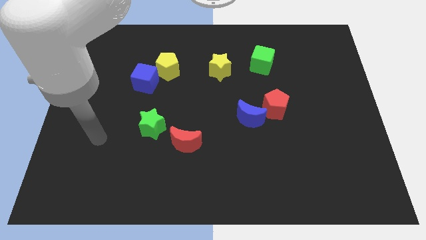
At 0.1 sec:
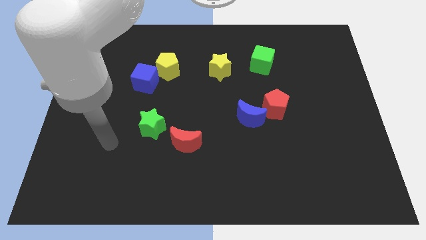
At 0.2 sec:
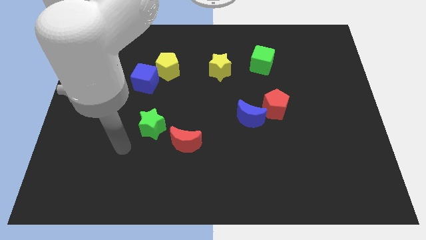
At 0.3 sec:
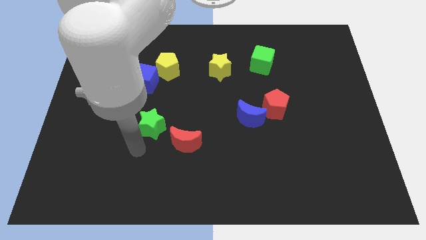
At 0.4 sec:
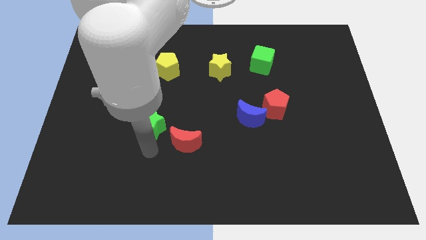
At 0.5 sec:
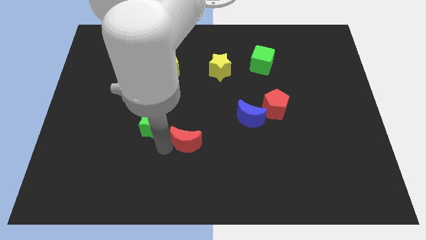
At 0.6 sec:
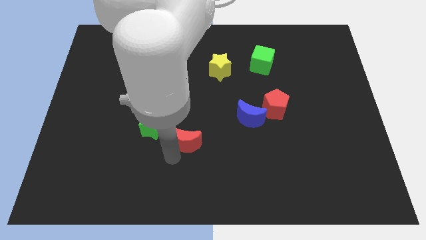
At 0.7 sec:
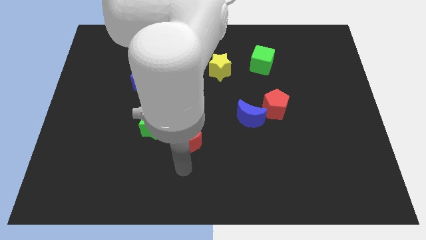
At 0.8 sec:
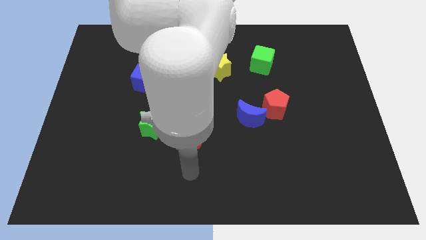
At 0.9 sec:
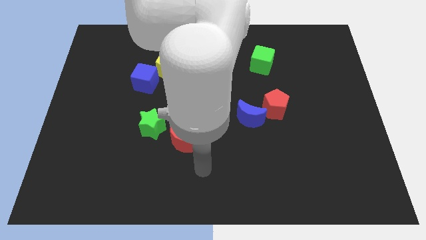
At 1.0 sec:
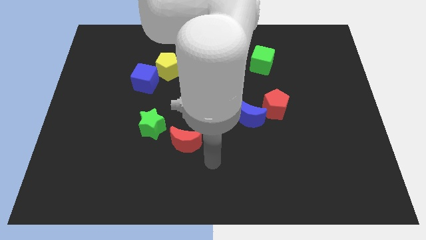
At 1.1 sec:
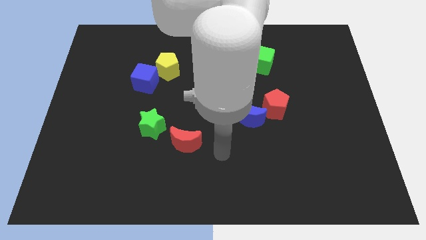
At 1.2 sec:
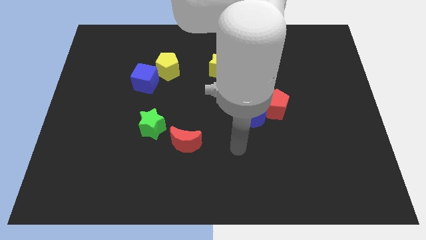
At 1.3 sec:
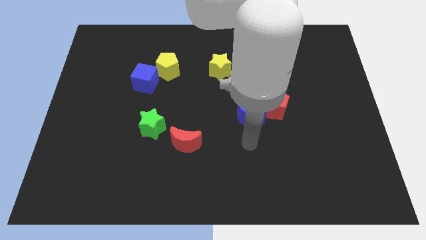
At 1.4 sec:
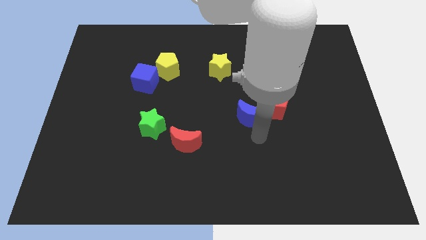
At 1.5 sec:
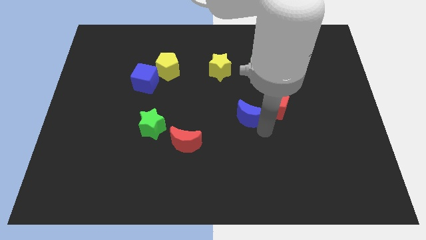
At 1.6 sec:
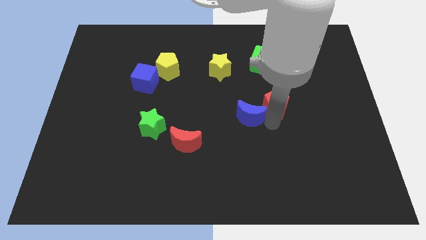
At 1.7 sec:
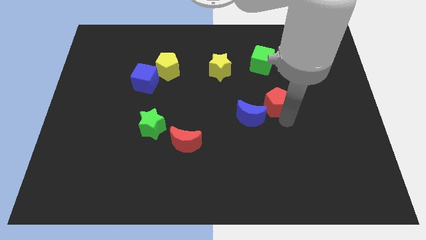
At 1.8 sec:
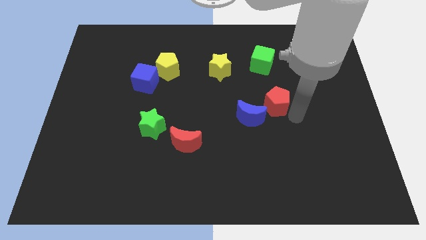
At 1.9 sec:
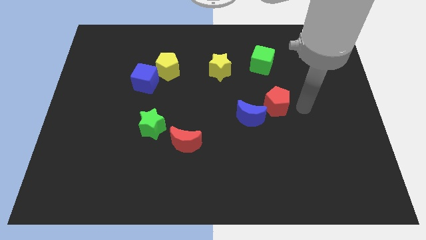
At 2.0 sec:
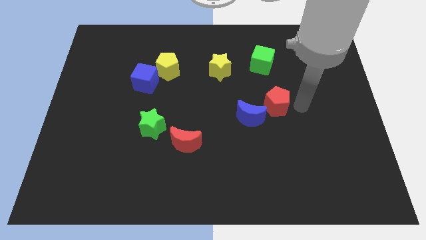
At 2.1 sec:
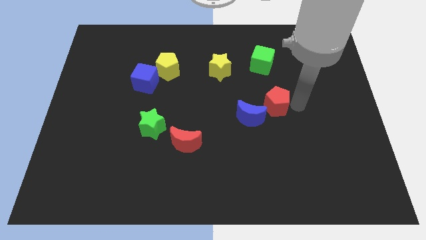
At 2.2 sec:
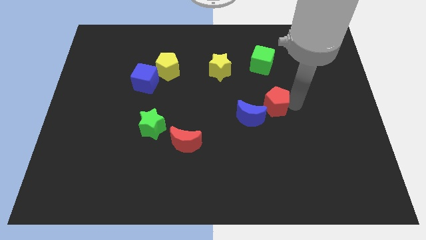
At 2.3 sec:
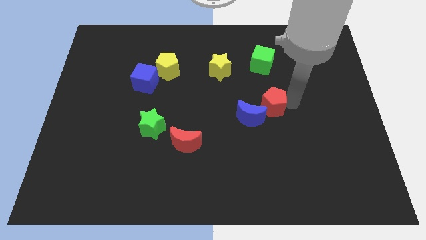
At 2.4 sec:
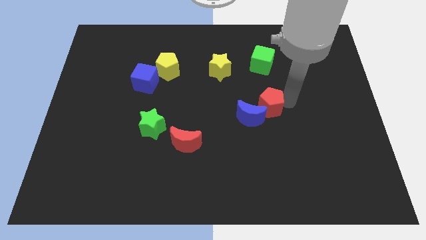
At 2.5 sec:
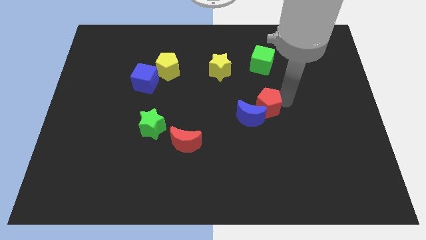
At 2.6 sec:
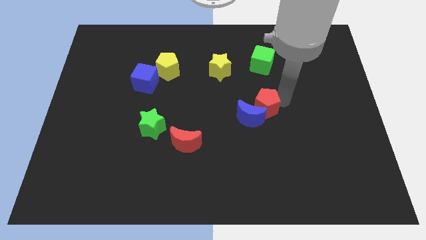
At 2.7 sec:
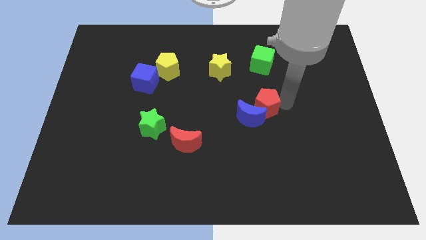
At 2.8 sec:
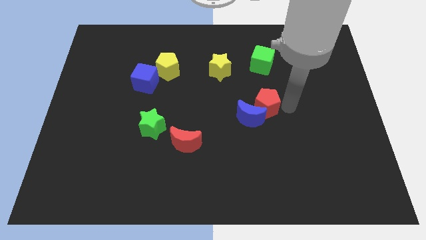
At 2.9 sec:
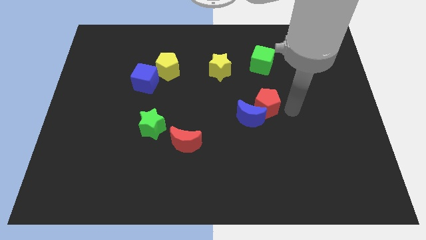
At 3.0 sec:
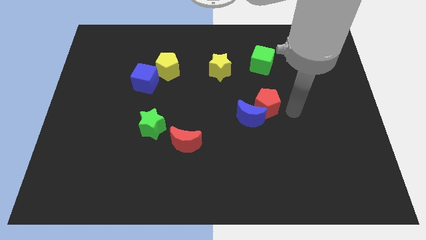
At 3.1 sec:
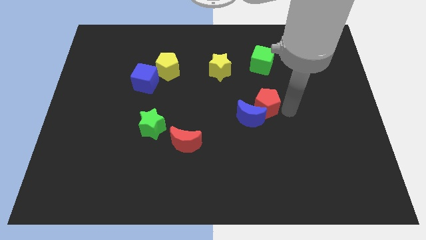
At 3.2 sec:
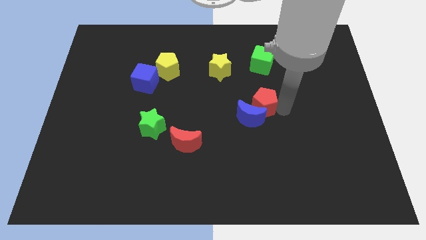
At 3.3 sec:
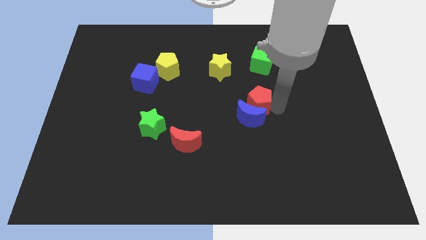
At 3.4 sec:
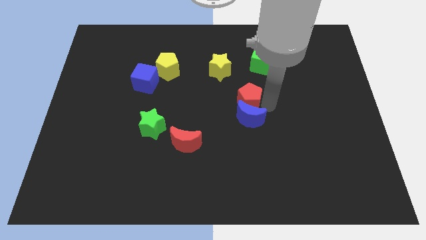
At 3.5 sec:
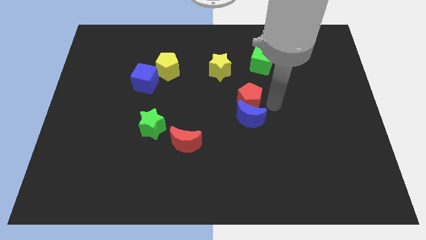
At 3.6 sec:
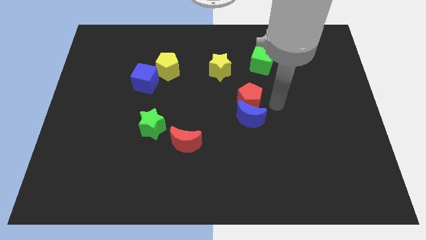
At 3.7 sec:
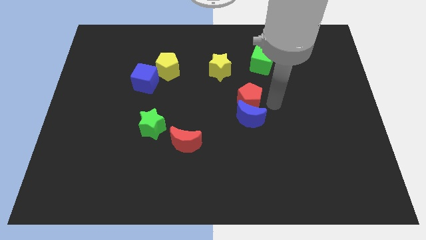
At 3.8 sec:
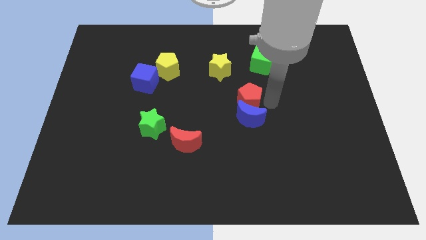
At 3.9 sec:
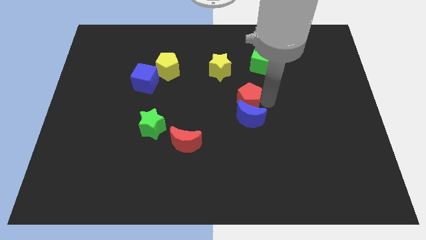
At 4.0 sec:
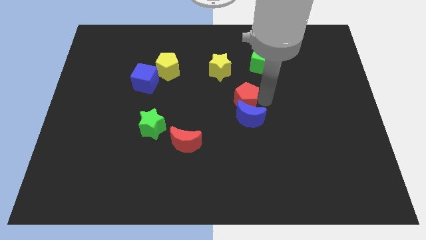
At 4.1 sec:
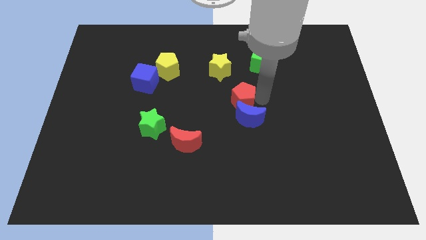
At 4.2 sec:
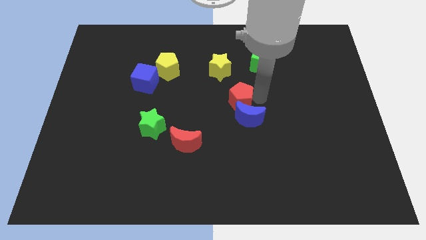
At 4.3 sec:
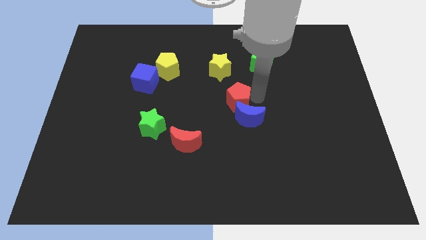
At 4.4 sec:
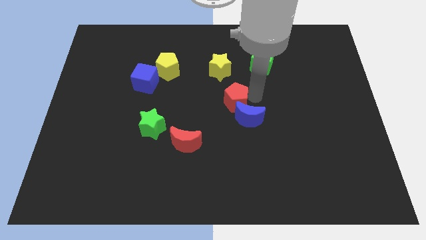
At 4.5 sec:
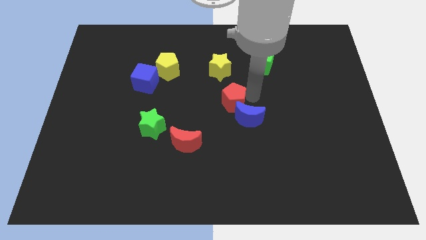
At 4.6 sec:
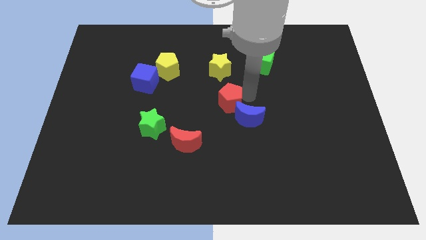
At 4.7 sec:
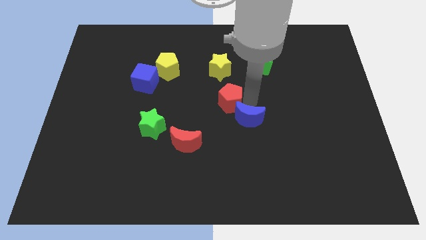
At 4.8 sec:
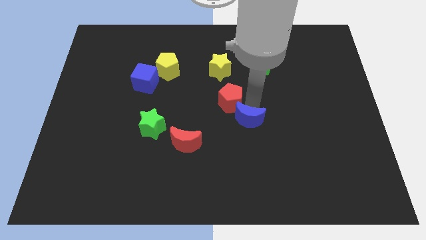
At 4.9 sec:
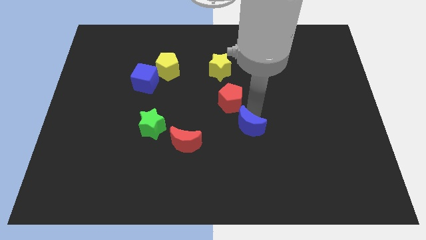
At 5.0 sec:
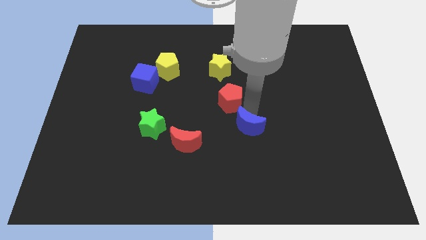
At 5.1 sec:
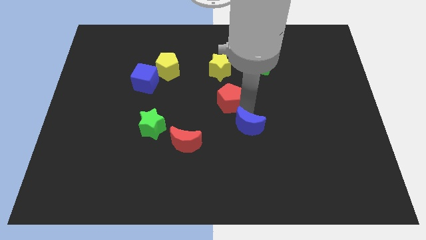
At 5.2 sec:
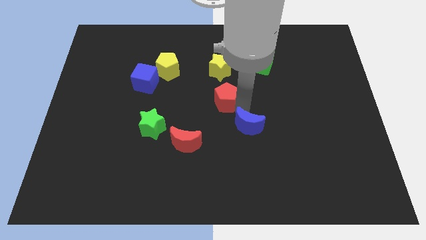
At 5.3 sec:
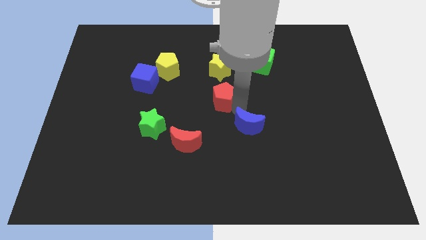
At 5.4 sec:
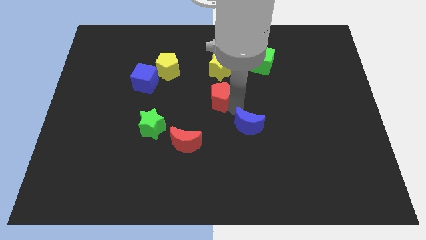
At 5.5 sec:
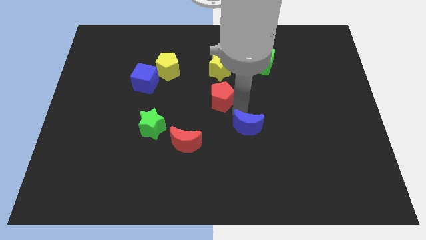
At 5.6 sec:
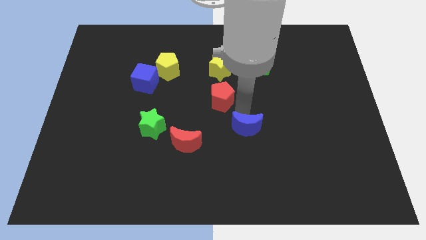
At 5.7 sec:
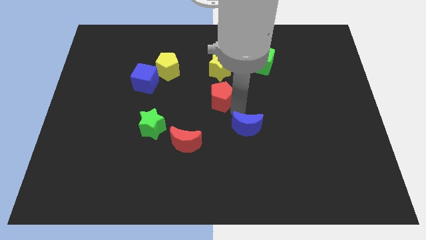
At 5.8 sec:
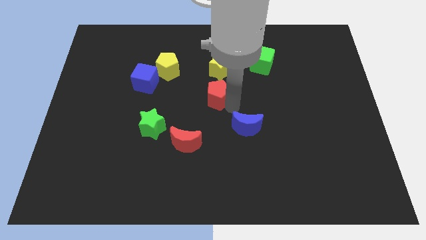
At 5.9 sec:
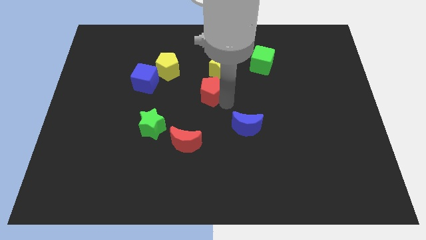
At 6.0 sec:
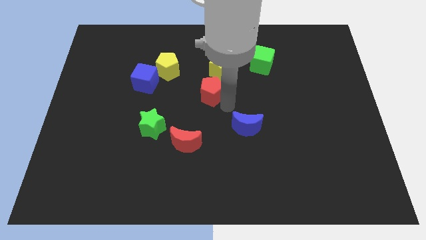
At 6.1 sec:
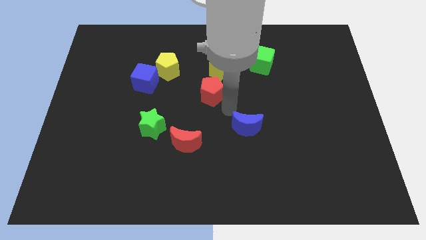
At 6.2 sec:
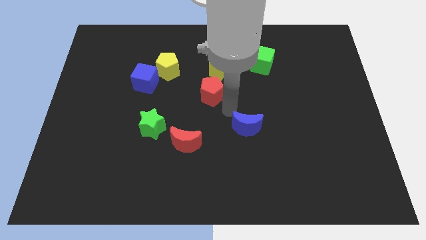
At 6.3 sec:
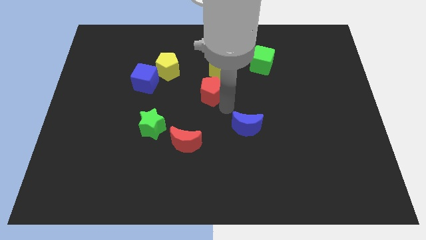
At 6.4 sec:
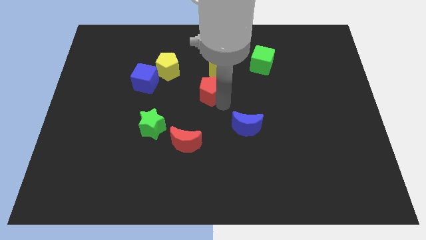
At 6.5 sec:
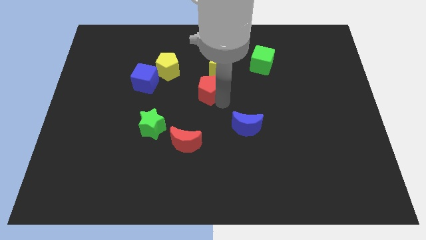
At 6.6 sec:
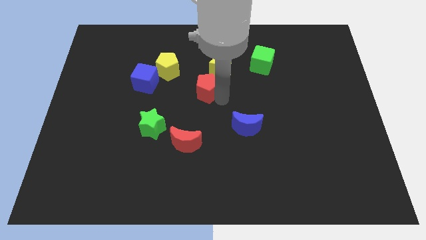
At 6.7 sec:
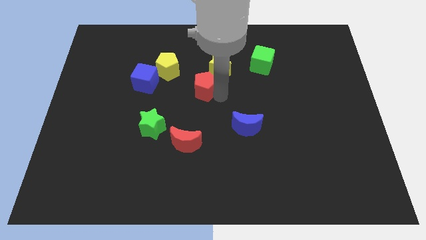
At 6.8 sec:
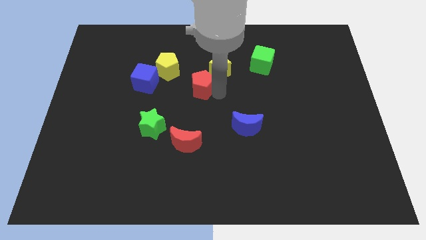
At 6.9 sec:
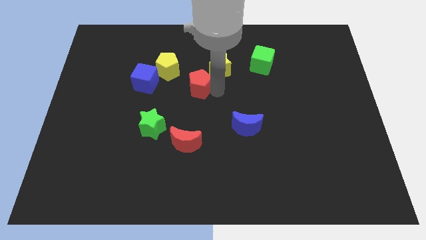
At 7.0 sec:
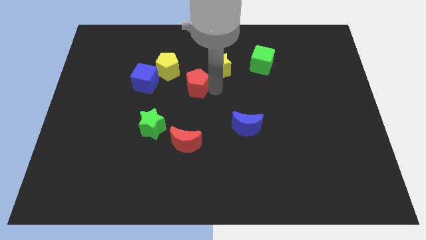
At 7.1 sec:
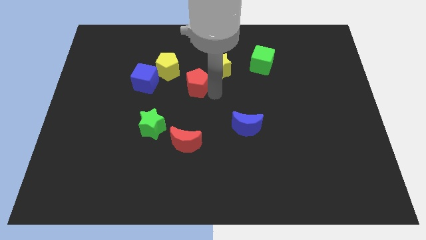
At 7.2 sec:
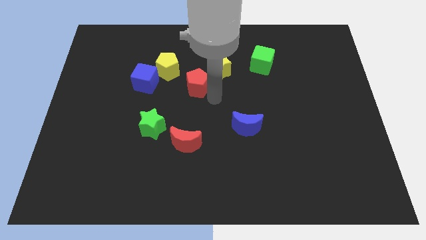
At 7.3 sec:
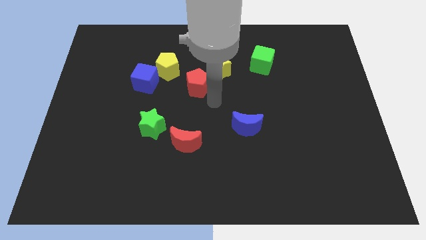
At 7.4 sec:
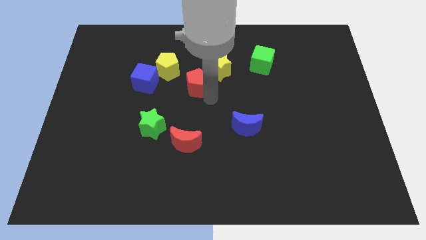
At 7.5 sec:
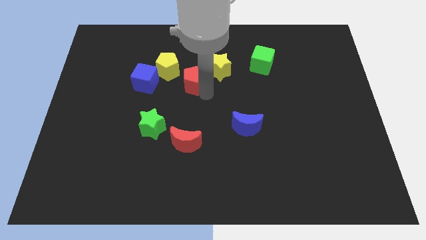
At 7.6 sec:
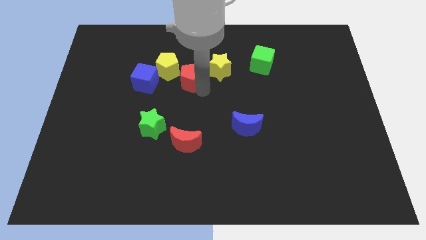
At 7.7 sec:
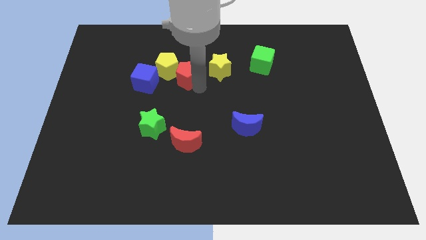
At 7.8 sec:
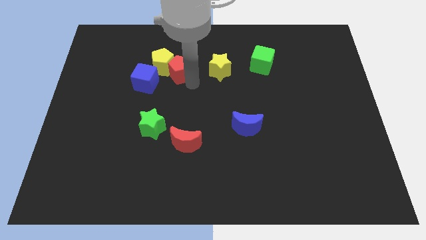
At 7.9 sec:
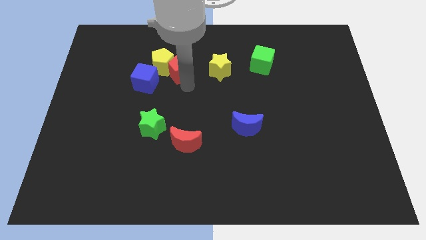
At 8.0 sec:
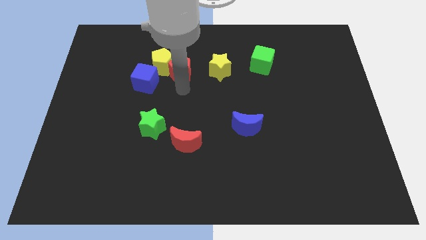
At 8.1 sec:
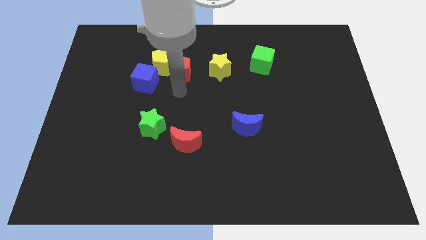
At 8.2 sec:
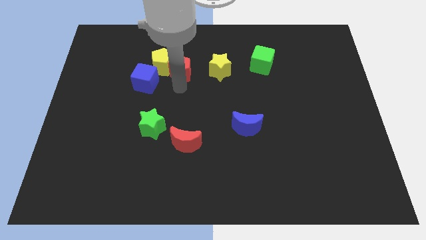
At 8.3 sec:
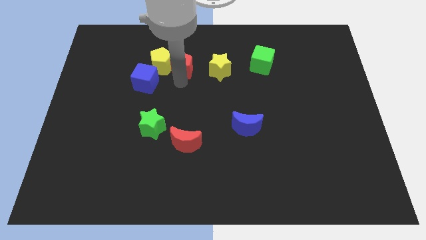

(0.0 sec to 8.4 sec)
slide the red pentagon to the top right of the yellow pentagon

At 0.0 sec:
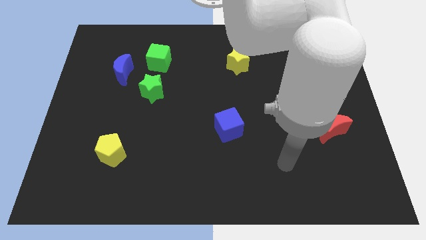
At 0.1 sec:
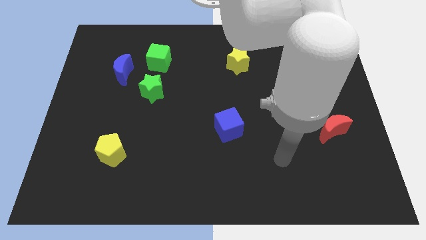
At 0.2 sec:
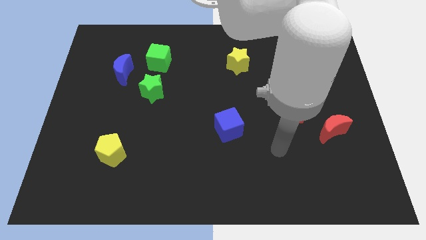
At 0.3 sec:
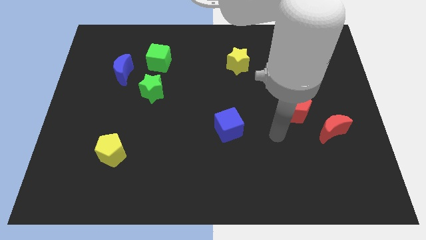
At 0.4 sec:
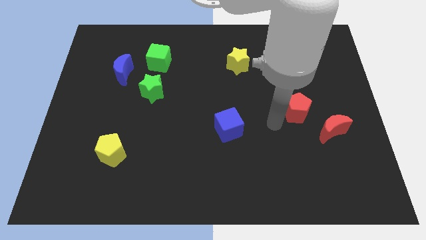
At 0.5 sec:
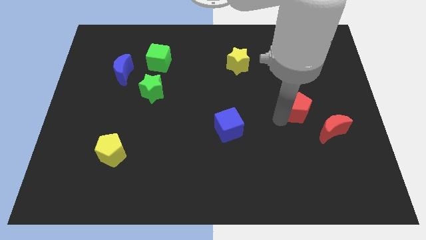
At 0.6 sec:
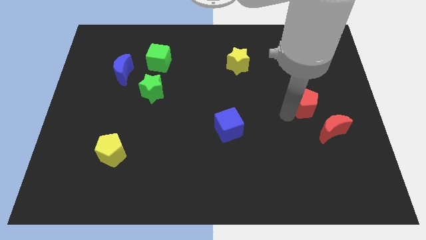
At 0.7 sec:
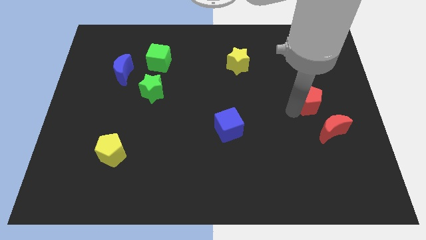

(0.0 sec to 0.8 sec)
push the red pentagon above the red moon
